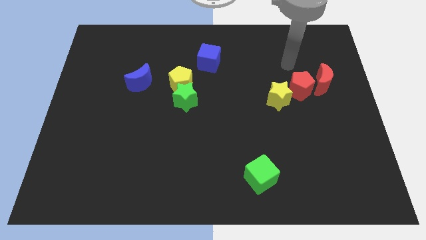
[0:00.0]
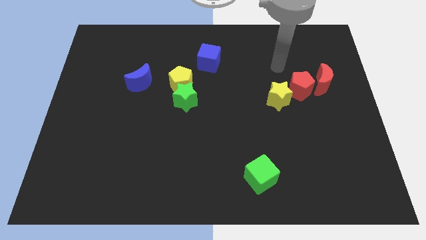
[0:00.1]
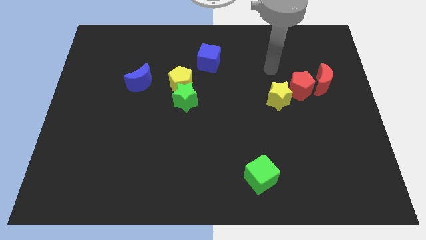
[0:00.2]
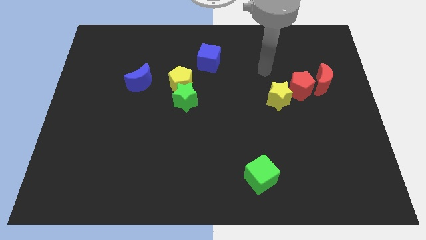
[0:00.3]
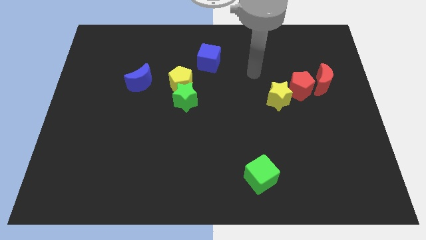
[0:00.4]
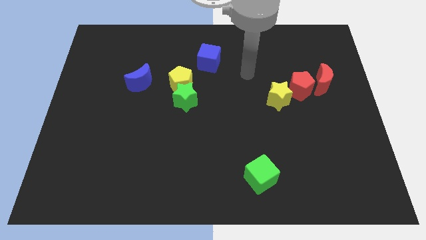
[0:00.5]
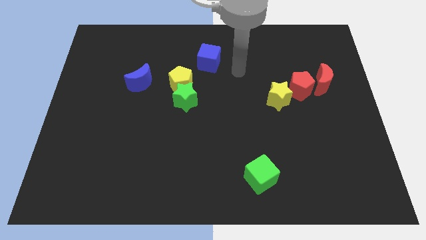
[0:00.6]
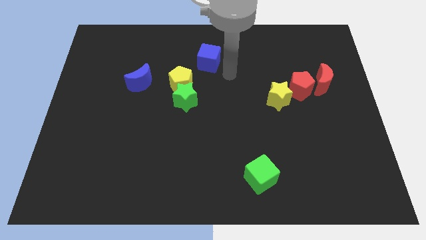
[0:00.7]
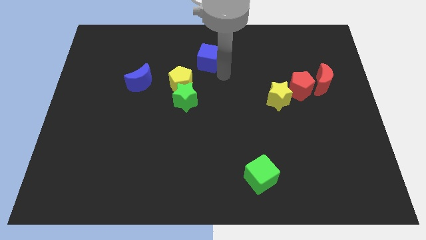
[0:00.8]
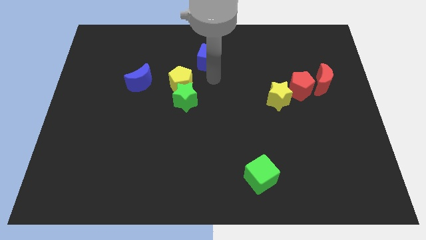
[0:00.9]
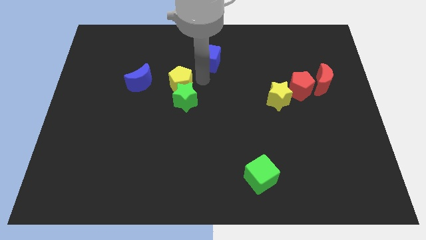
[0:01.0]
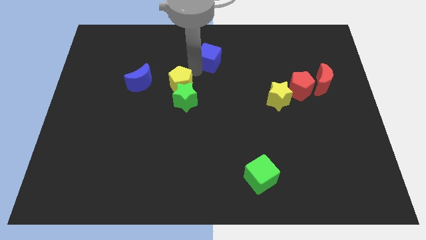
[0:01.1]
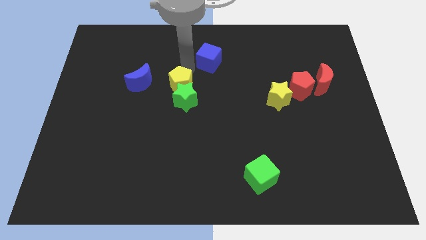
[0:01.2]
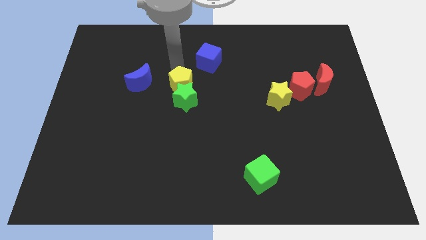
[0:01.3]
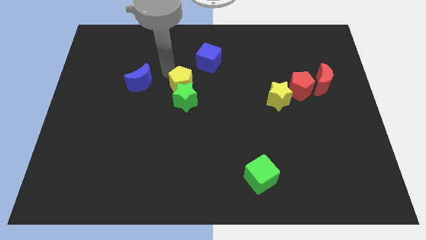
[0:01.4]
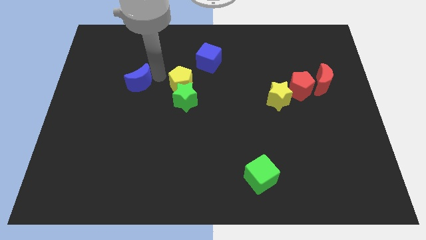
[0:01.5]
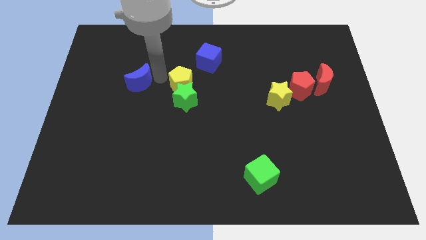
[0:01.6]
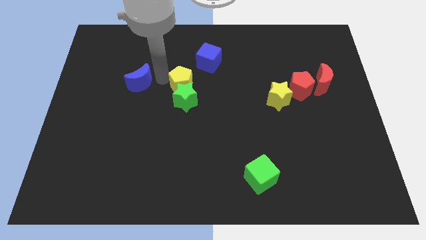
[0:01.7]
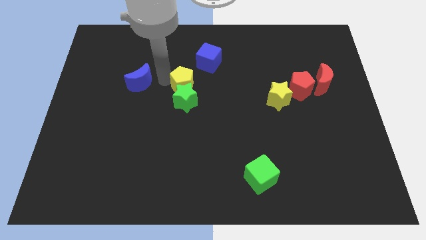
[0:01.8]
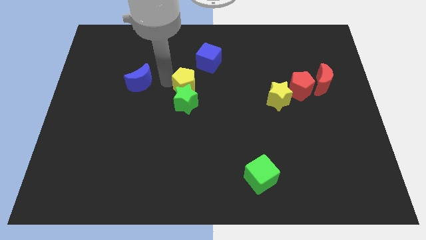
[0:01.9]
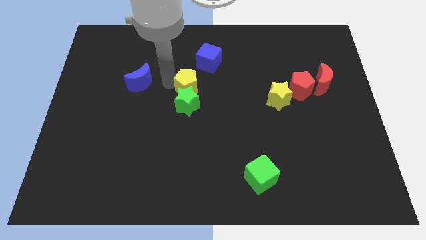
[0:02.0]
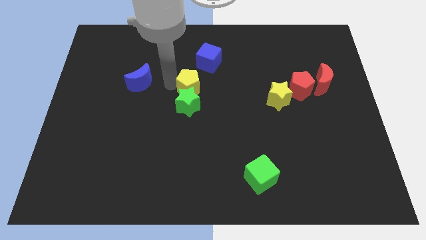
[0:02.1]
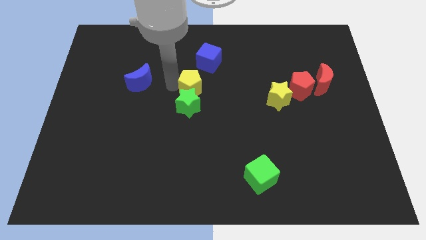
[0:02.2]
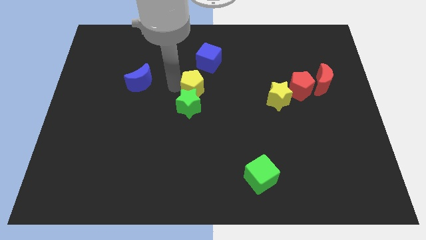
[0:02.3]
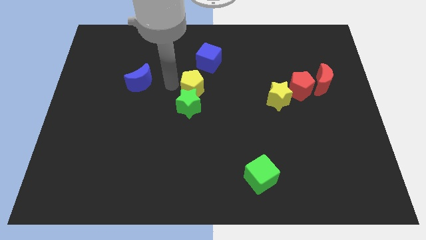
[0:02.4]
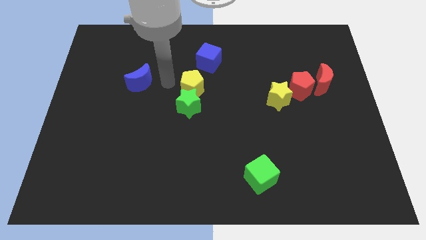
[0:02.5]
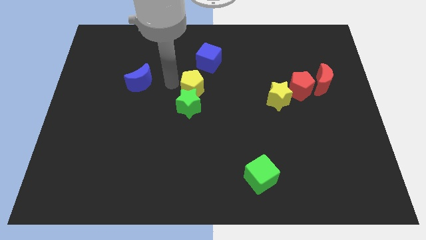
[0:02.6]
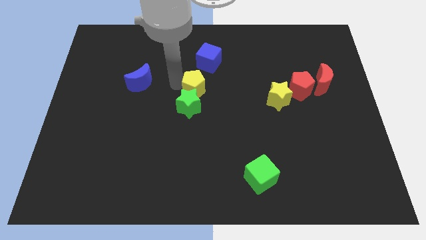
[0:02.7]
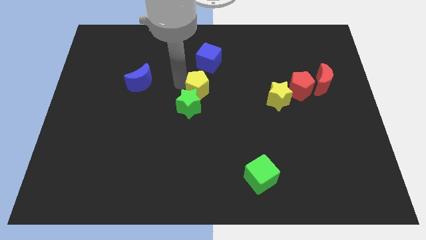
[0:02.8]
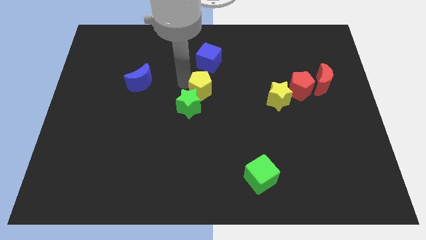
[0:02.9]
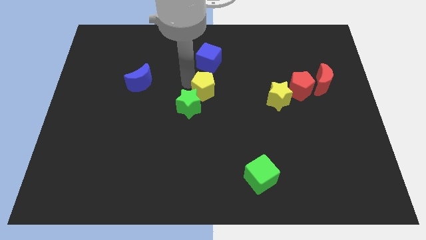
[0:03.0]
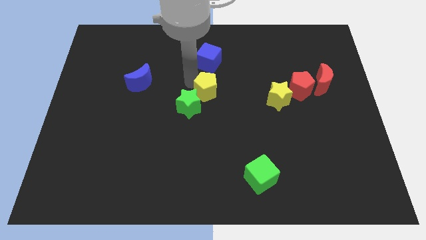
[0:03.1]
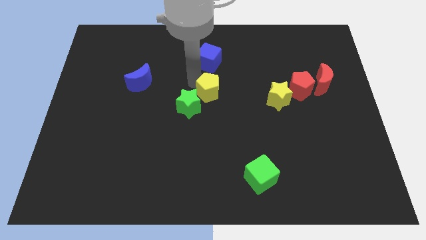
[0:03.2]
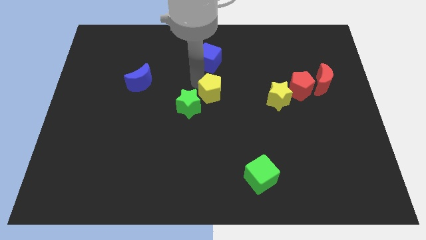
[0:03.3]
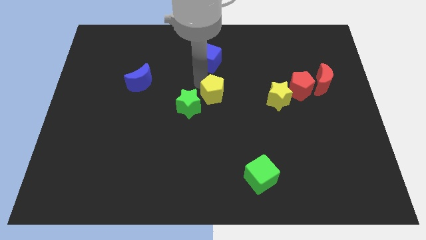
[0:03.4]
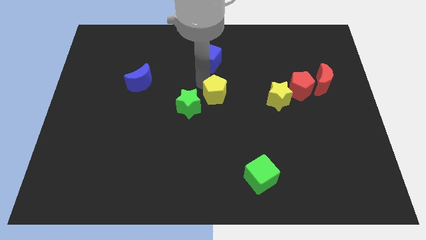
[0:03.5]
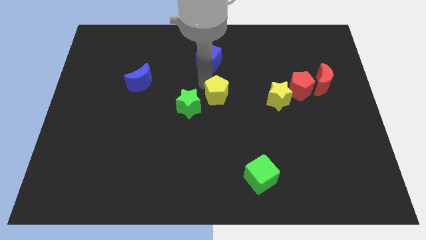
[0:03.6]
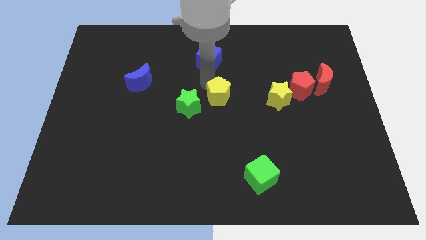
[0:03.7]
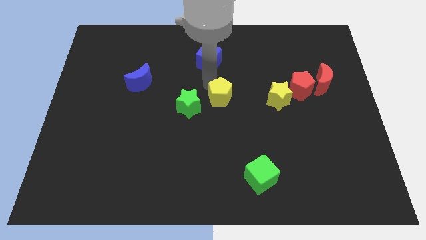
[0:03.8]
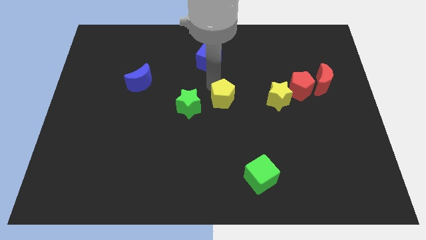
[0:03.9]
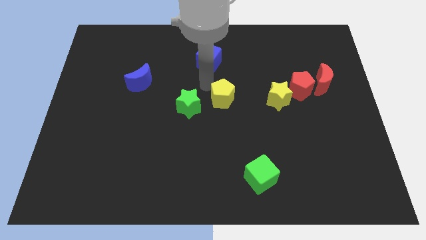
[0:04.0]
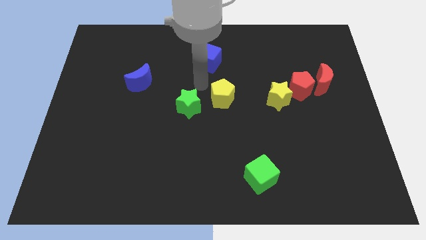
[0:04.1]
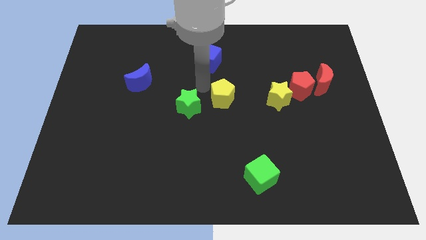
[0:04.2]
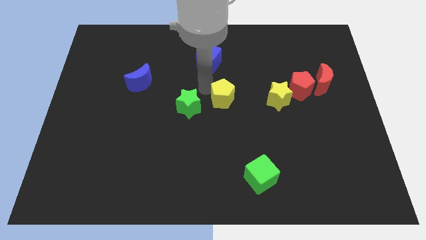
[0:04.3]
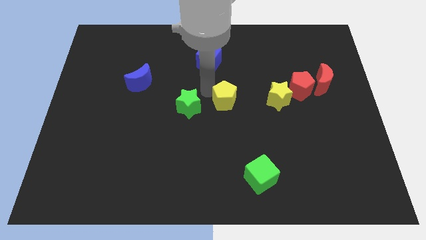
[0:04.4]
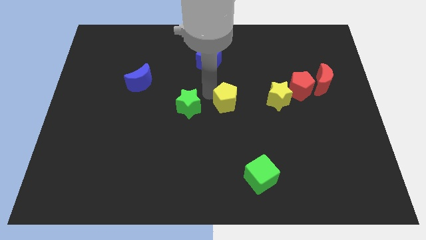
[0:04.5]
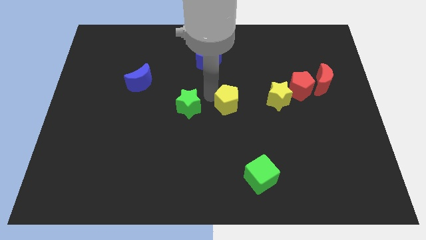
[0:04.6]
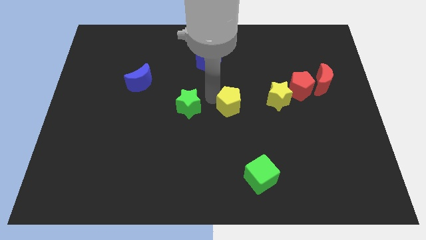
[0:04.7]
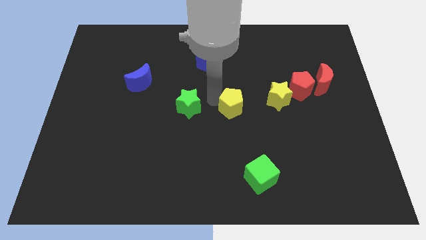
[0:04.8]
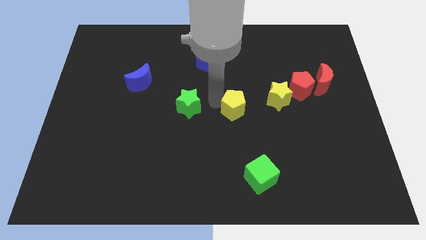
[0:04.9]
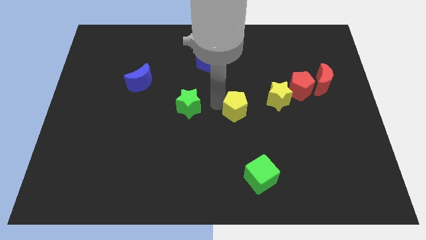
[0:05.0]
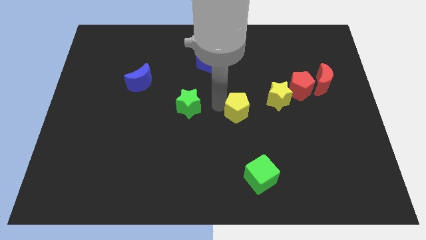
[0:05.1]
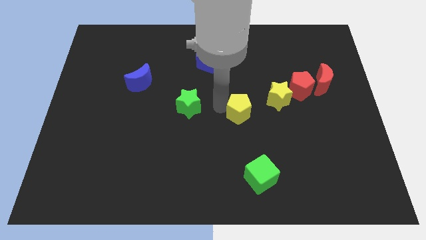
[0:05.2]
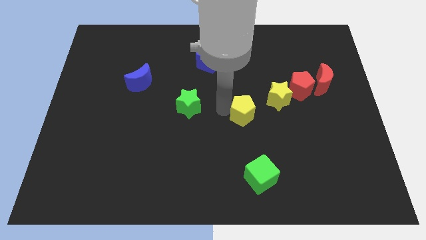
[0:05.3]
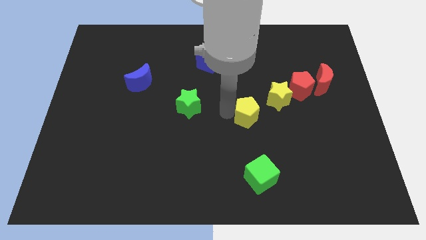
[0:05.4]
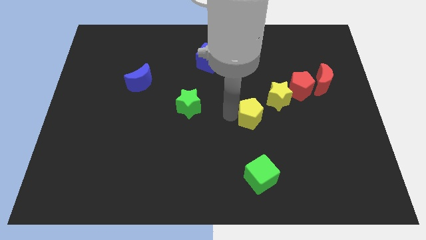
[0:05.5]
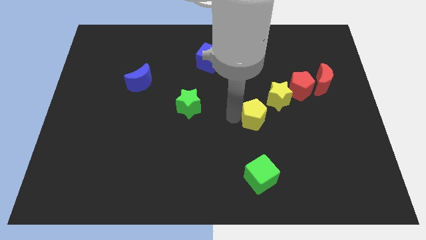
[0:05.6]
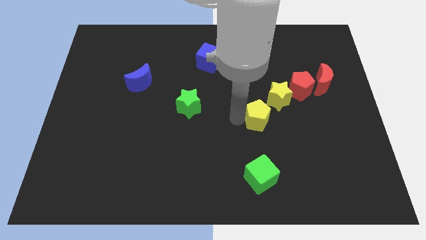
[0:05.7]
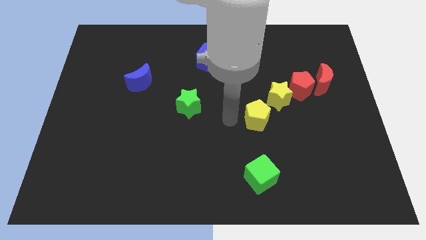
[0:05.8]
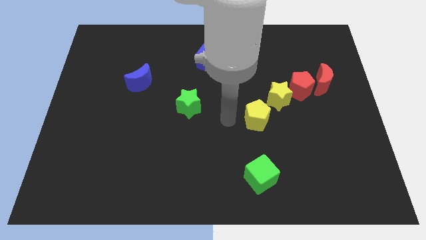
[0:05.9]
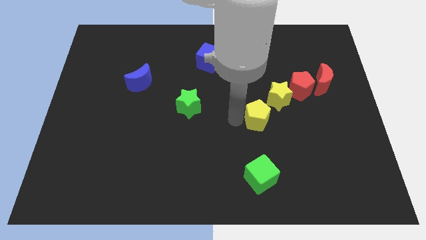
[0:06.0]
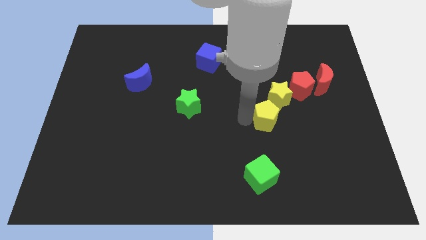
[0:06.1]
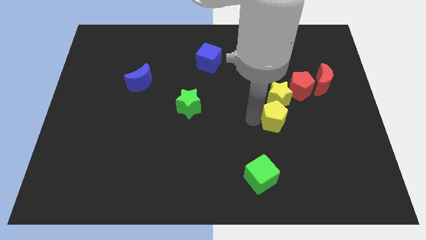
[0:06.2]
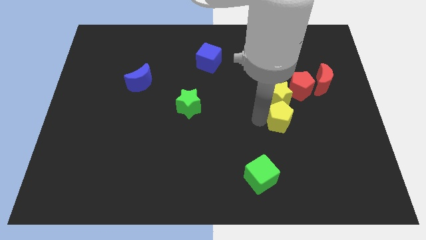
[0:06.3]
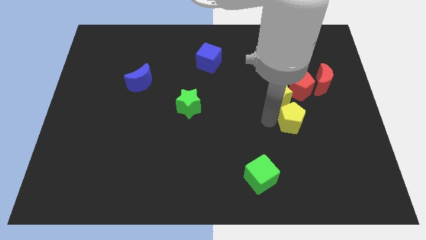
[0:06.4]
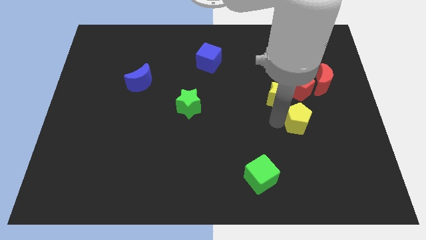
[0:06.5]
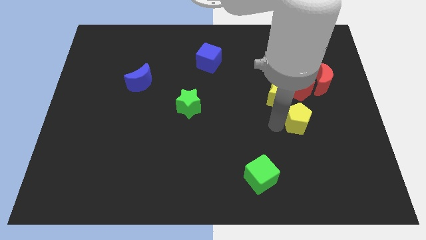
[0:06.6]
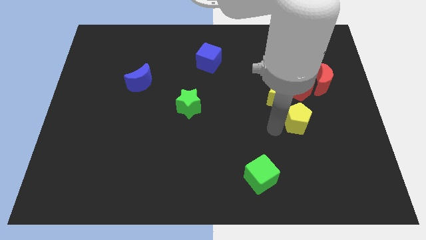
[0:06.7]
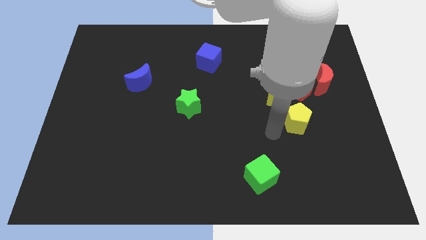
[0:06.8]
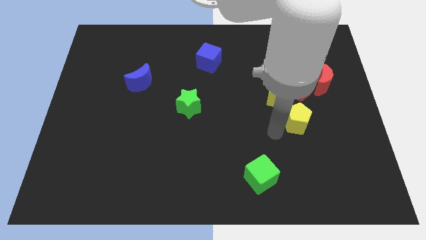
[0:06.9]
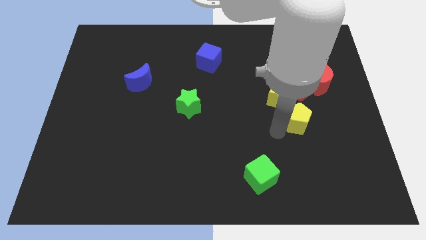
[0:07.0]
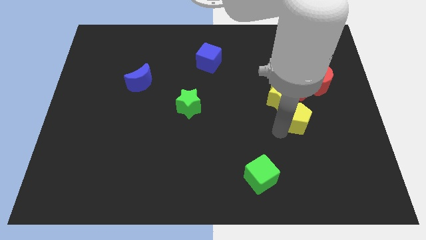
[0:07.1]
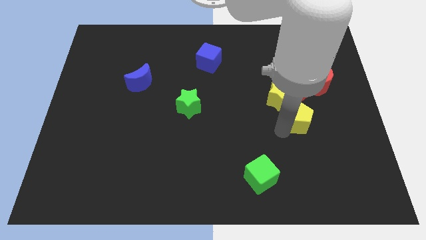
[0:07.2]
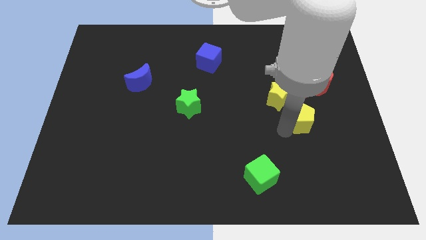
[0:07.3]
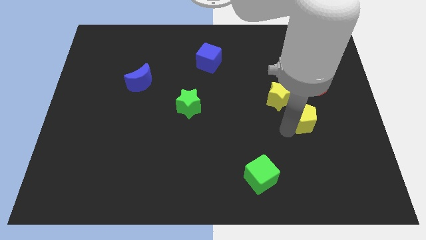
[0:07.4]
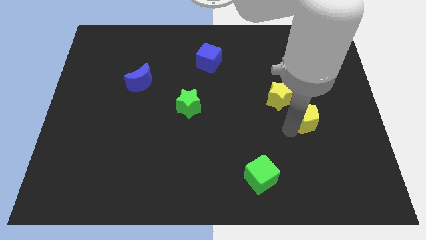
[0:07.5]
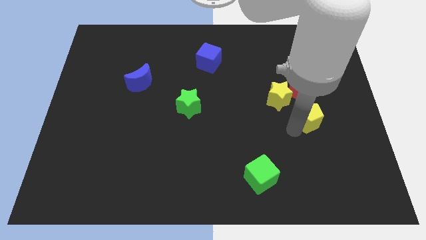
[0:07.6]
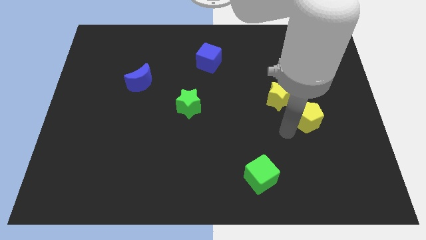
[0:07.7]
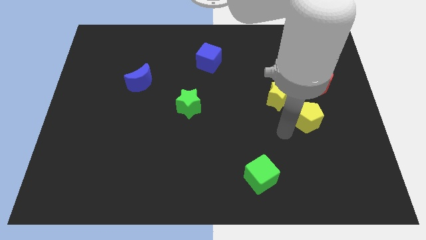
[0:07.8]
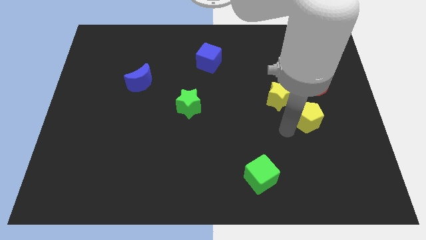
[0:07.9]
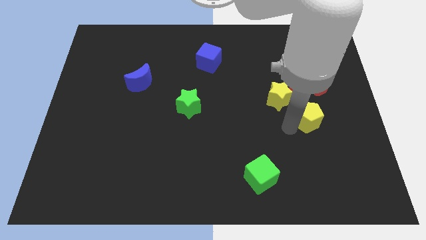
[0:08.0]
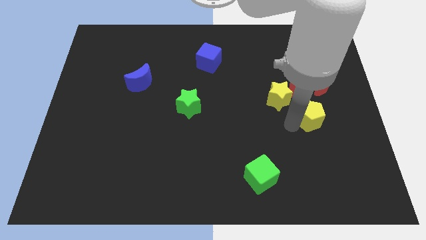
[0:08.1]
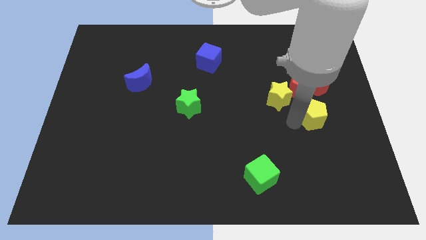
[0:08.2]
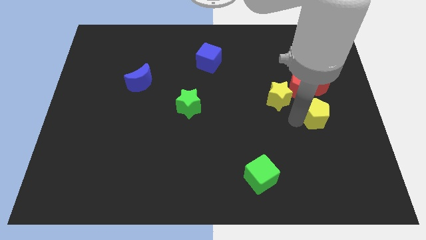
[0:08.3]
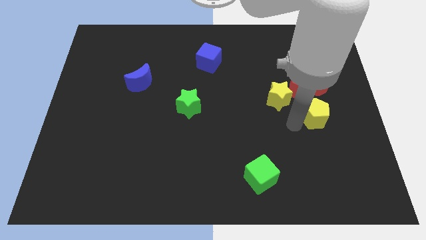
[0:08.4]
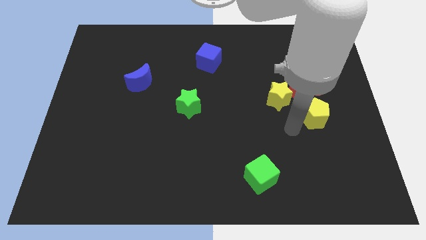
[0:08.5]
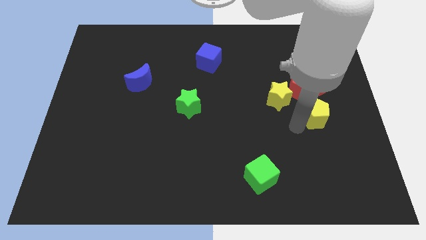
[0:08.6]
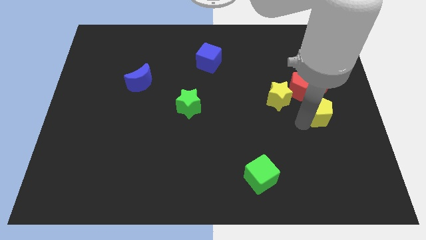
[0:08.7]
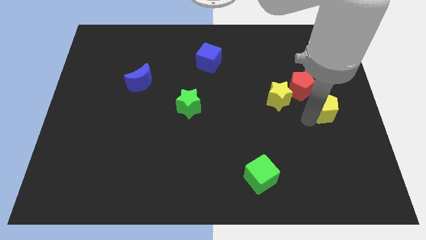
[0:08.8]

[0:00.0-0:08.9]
slide the yellow pentagon to the right side of the board
